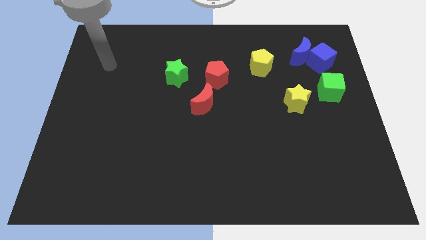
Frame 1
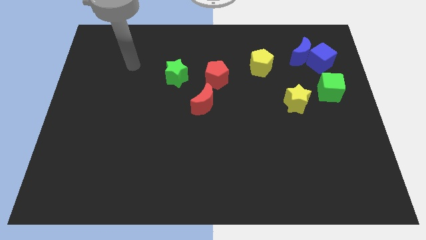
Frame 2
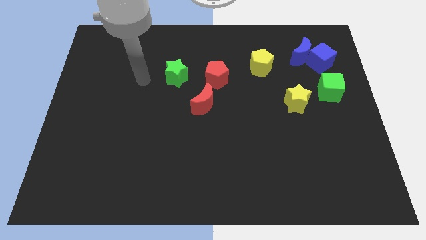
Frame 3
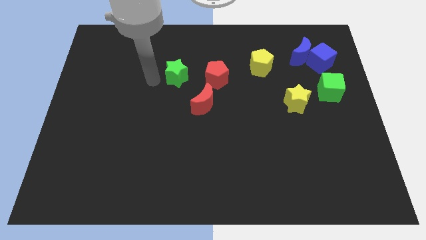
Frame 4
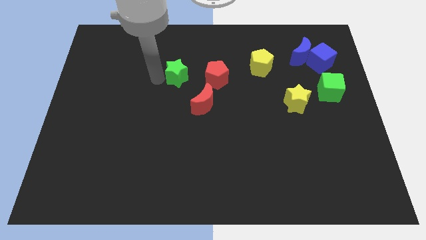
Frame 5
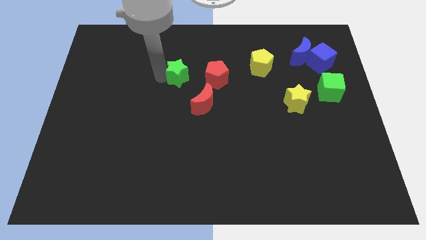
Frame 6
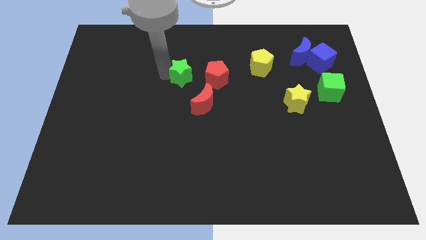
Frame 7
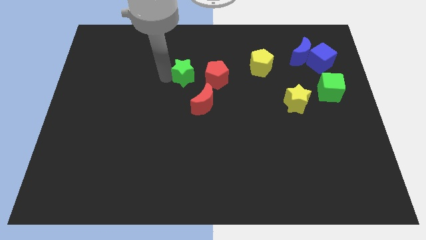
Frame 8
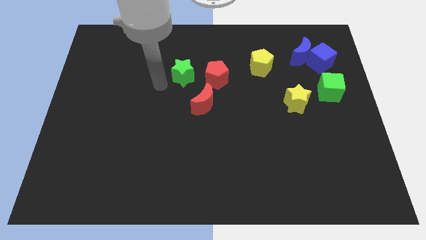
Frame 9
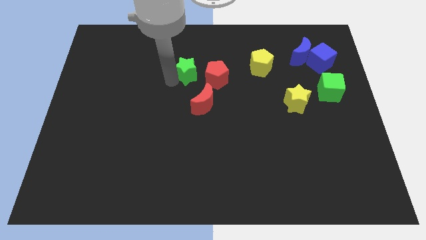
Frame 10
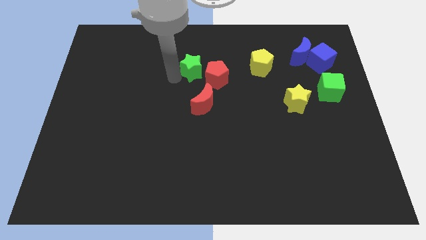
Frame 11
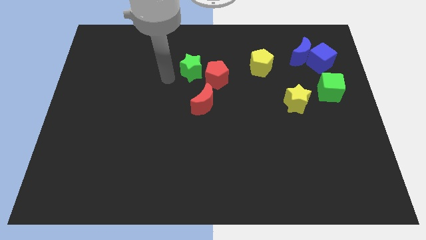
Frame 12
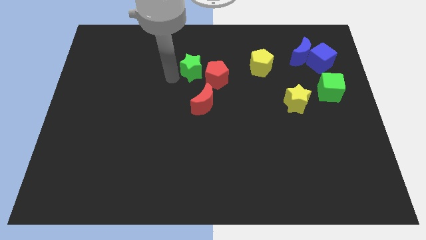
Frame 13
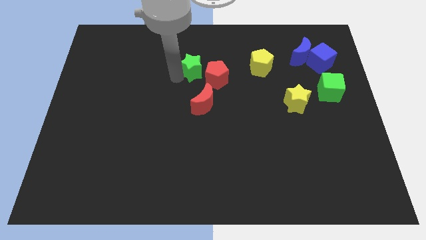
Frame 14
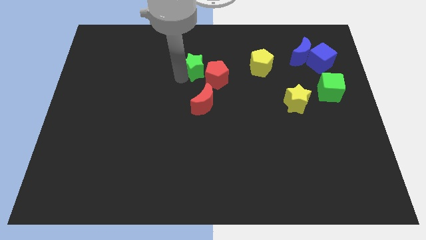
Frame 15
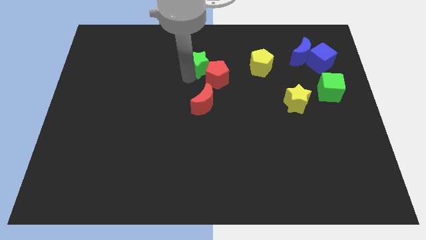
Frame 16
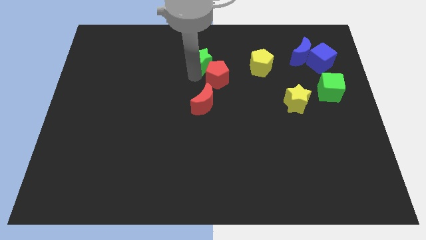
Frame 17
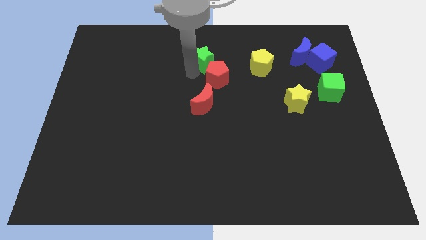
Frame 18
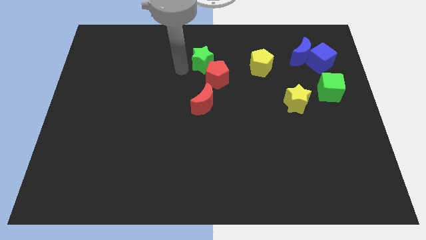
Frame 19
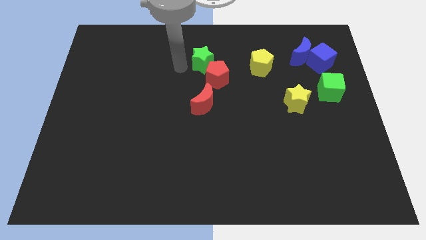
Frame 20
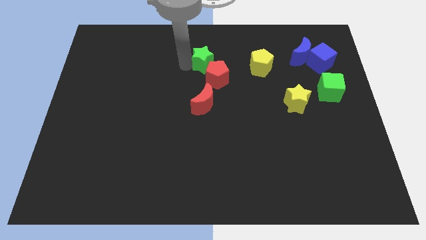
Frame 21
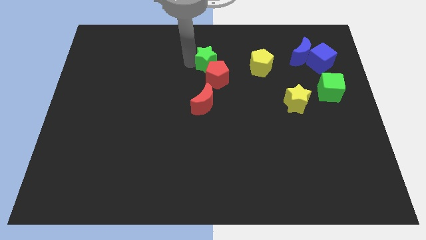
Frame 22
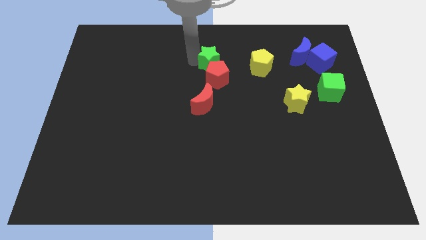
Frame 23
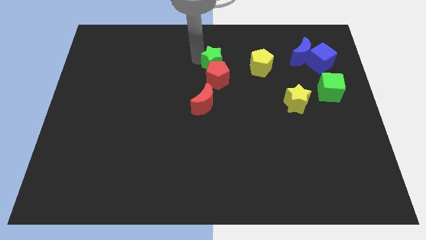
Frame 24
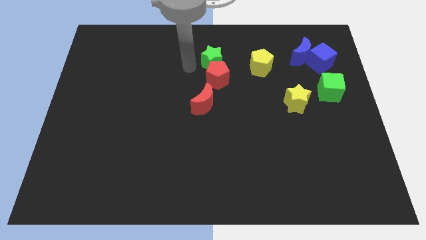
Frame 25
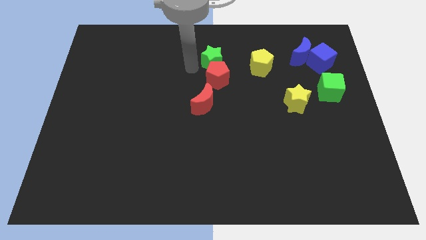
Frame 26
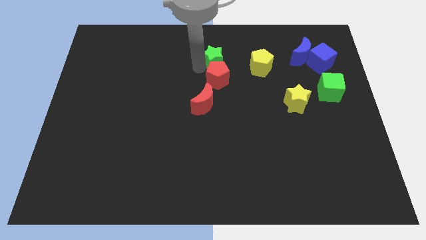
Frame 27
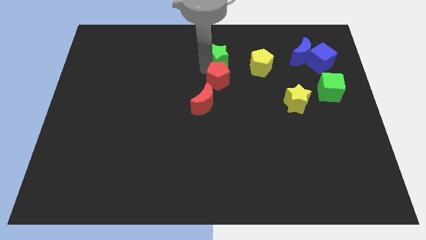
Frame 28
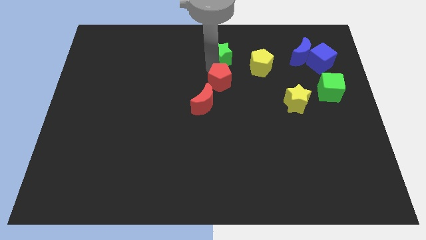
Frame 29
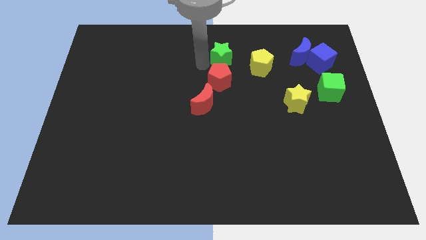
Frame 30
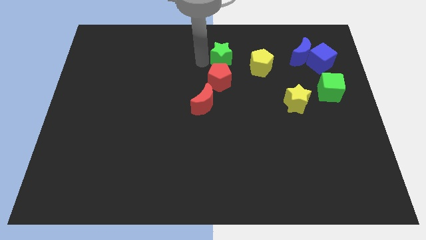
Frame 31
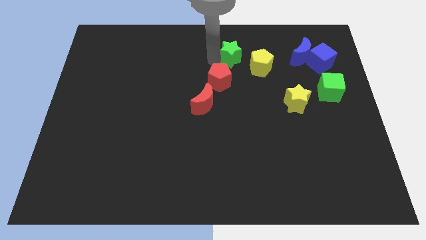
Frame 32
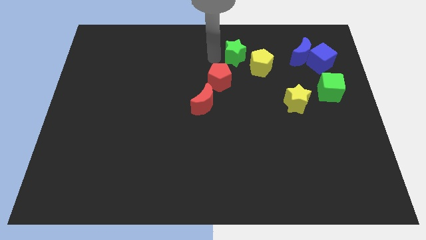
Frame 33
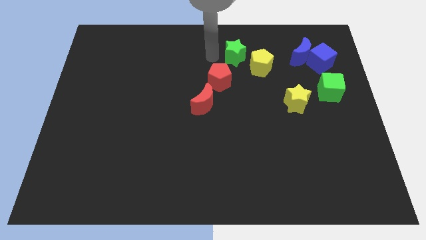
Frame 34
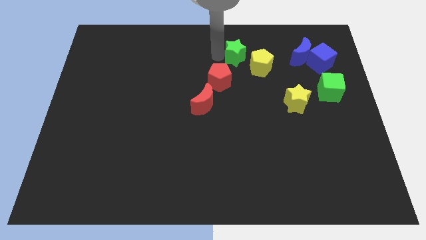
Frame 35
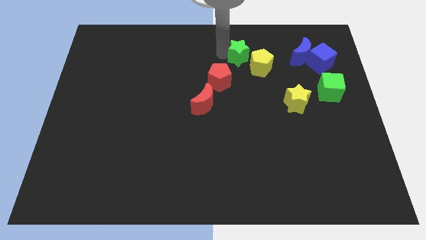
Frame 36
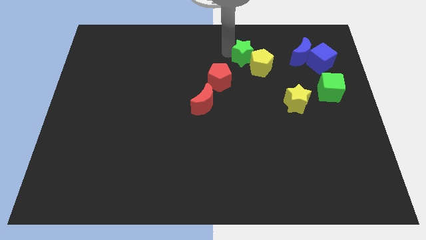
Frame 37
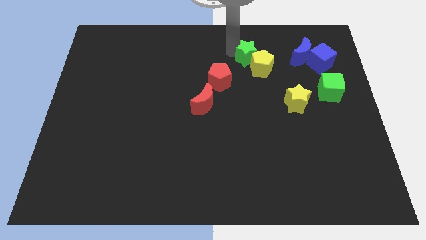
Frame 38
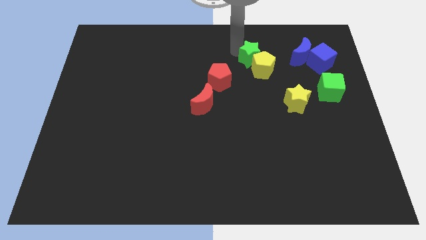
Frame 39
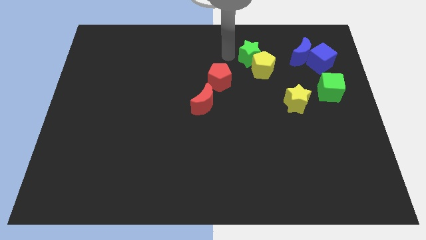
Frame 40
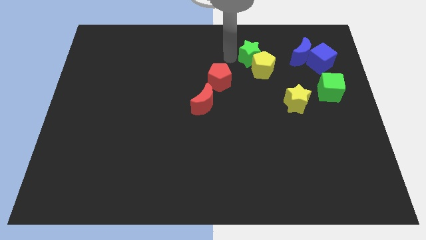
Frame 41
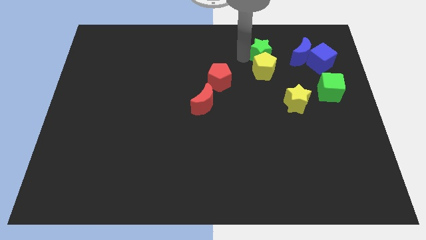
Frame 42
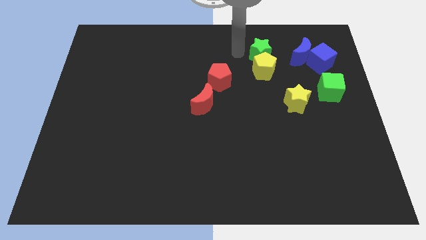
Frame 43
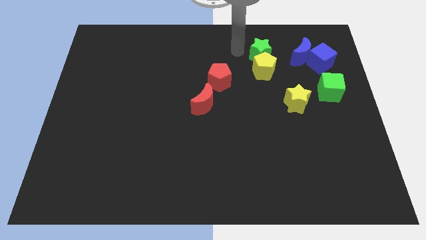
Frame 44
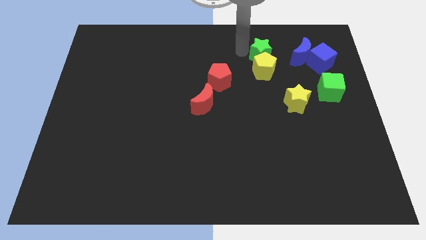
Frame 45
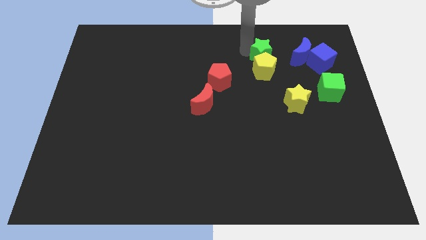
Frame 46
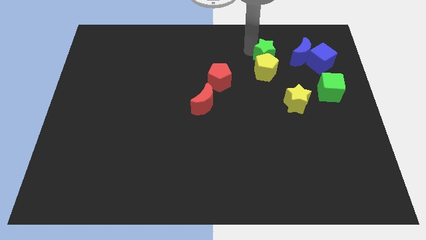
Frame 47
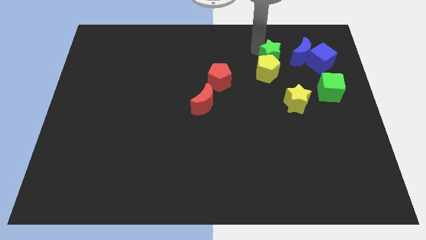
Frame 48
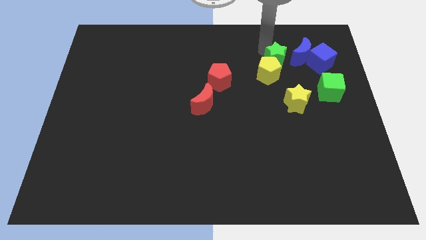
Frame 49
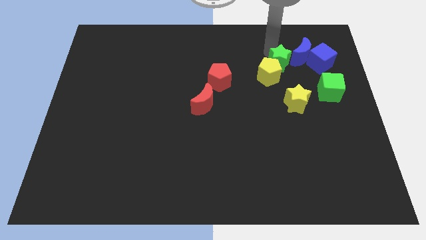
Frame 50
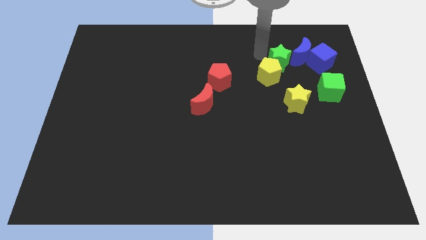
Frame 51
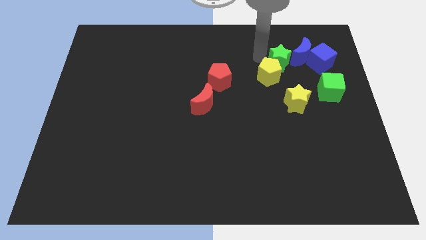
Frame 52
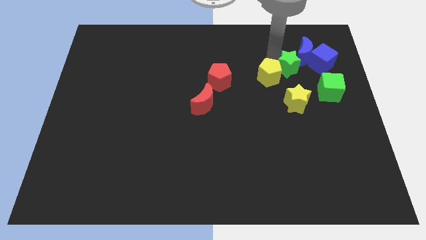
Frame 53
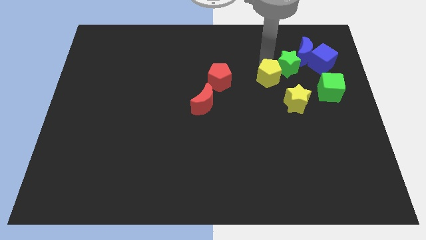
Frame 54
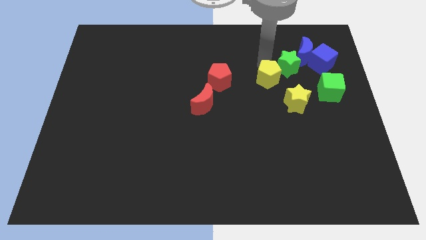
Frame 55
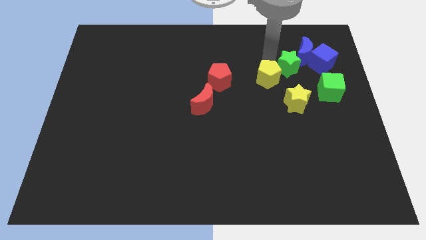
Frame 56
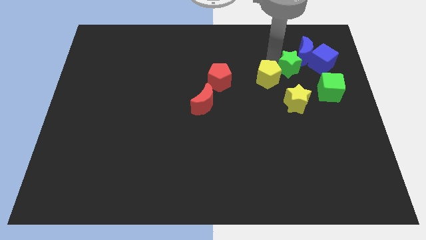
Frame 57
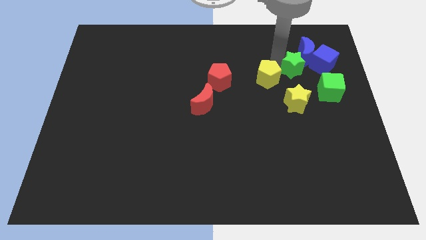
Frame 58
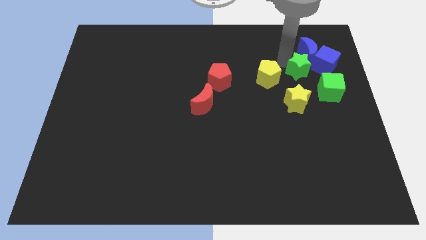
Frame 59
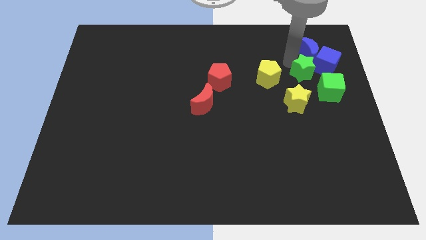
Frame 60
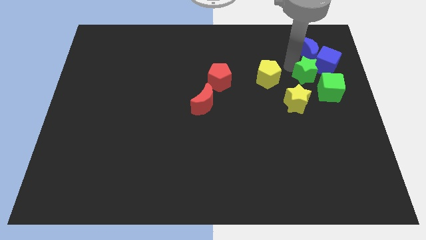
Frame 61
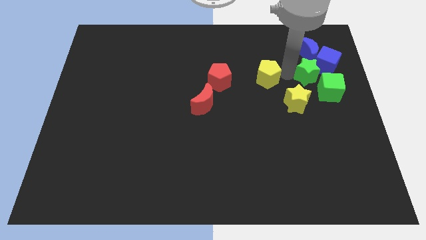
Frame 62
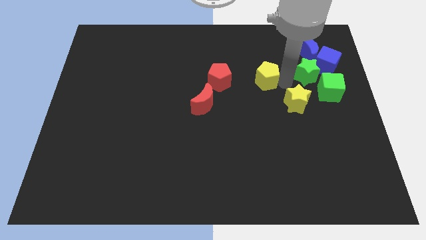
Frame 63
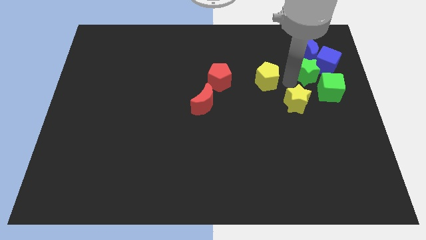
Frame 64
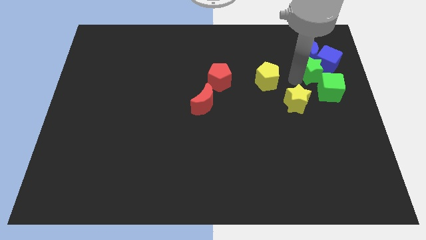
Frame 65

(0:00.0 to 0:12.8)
push the green star next to the blue cube

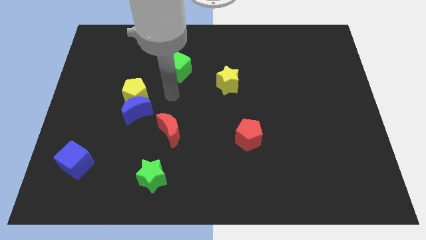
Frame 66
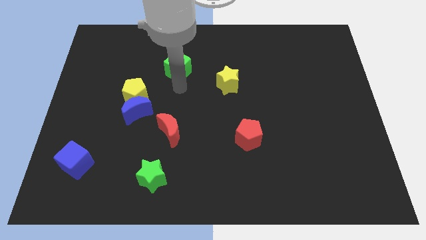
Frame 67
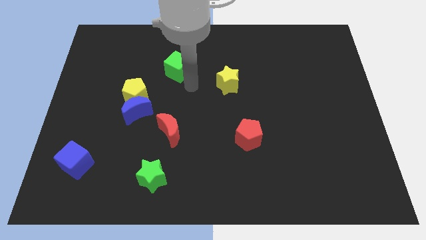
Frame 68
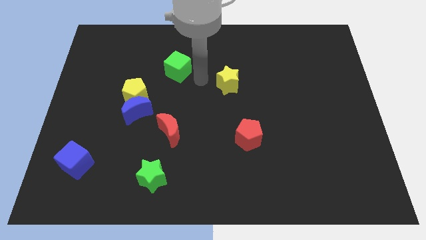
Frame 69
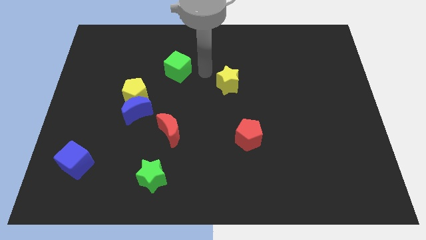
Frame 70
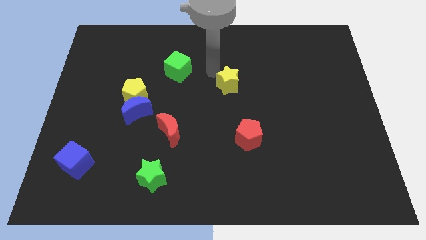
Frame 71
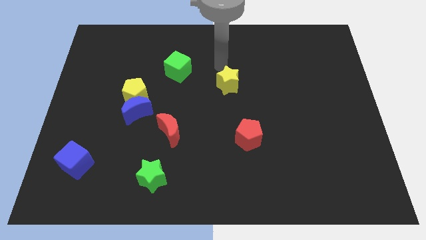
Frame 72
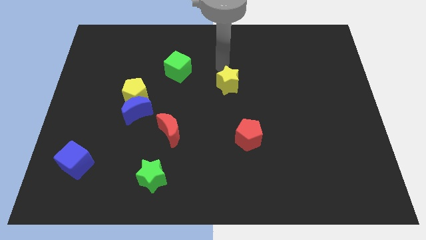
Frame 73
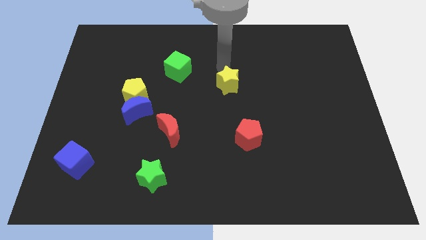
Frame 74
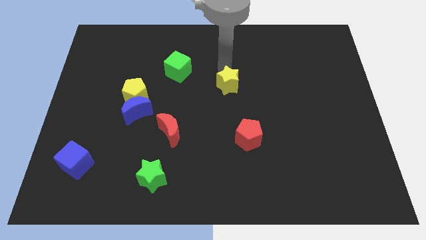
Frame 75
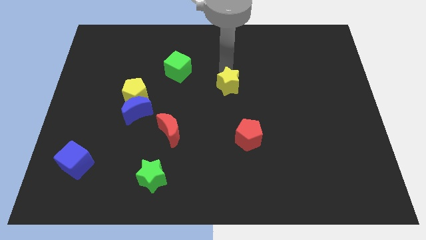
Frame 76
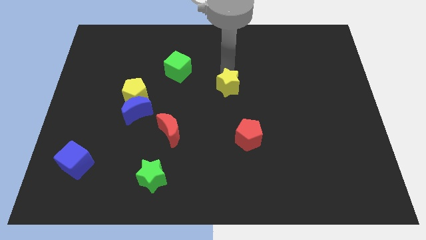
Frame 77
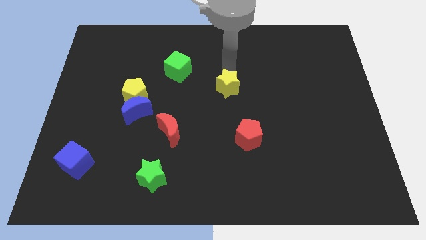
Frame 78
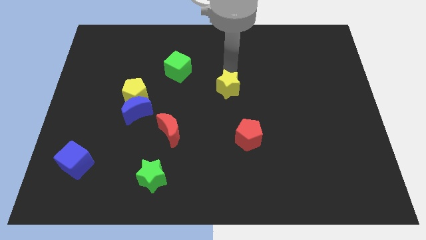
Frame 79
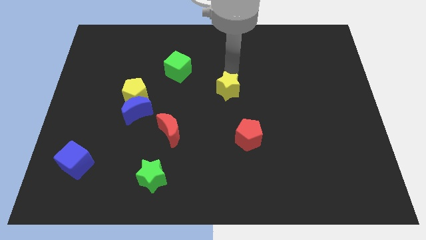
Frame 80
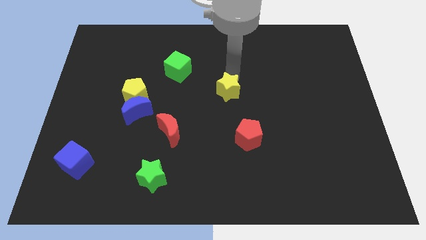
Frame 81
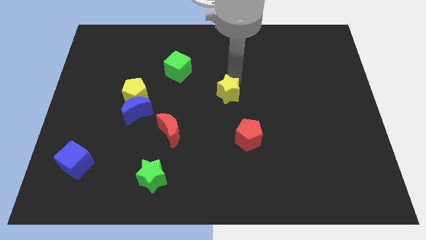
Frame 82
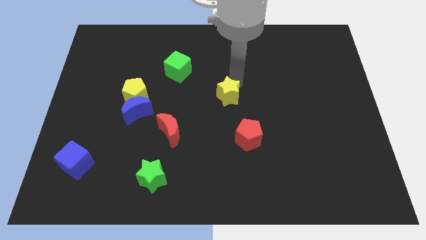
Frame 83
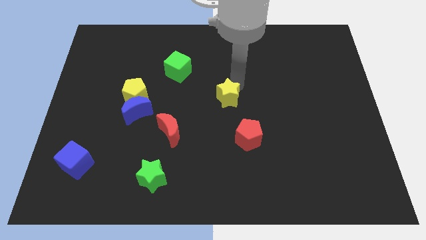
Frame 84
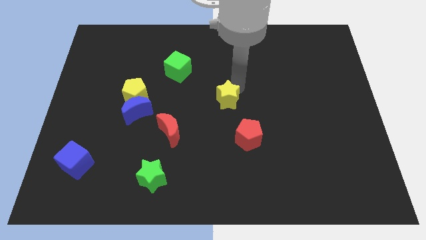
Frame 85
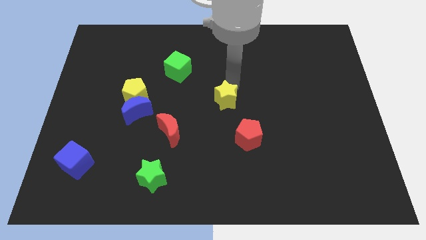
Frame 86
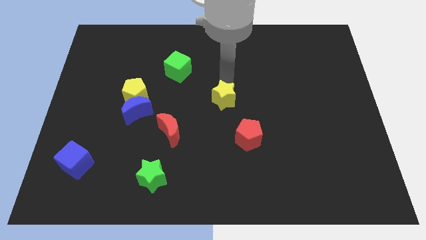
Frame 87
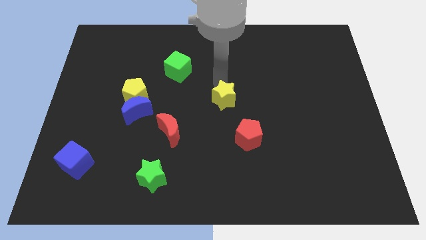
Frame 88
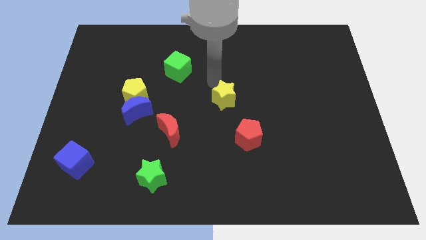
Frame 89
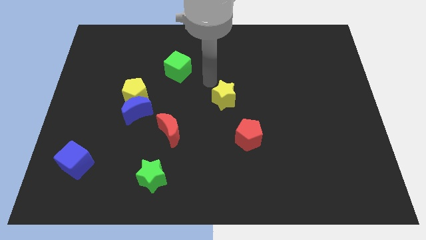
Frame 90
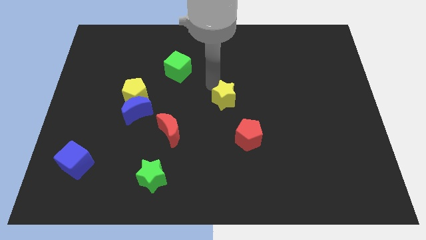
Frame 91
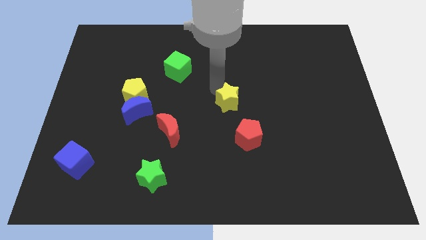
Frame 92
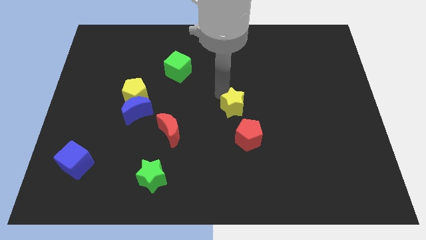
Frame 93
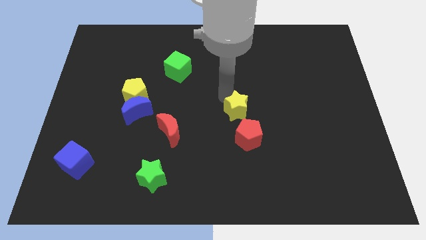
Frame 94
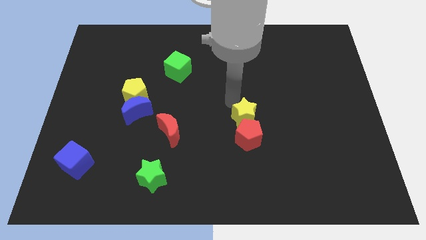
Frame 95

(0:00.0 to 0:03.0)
push the yellow star to the red pentagon
